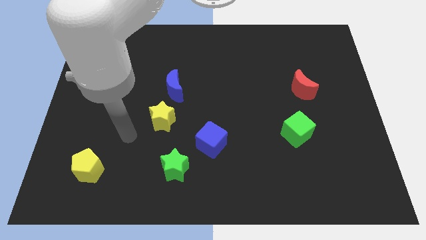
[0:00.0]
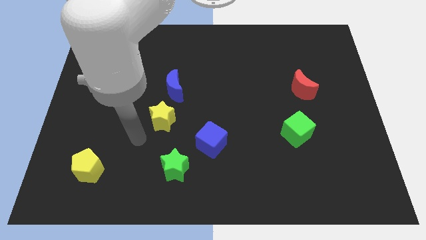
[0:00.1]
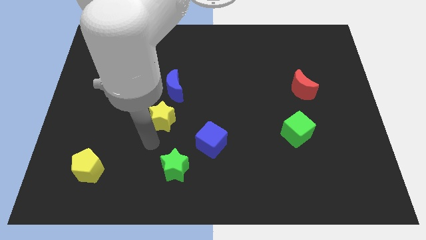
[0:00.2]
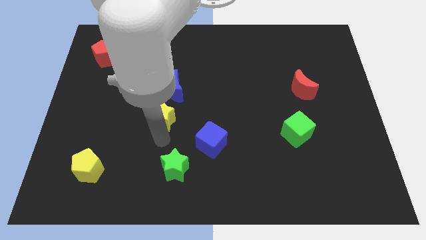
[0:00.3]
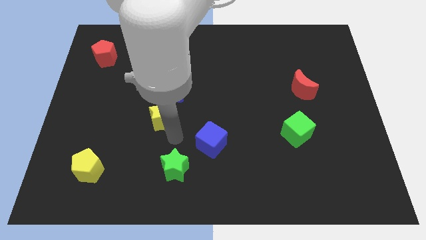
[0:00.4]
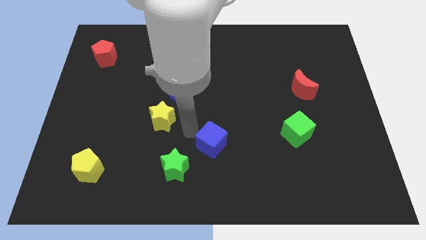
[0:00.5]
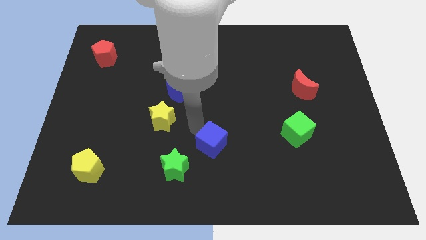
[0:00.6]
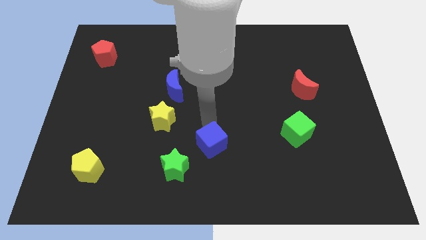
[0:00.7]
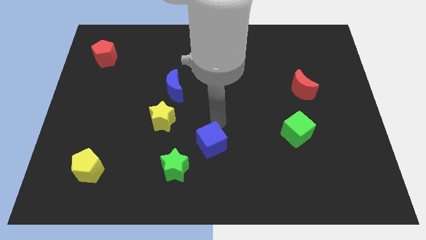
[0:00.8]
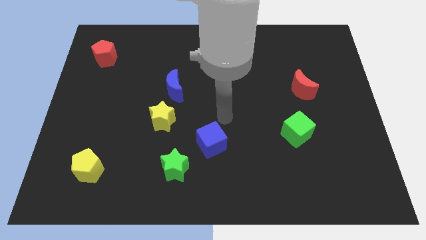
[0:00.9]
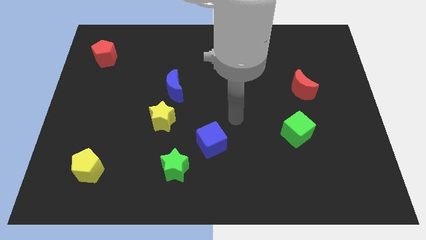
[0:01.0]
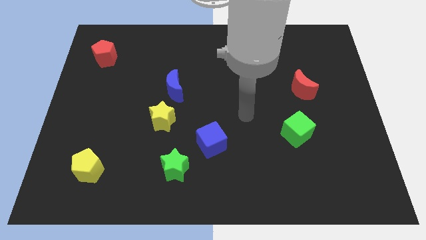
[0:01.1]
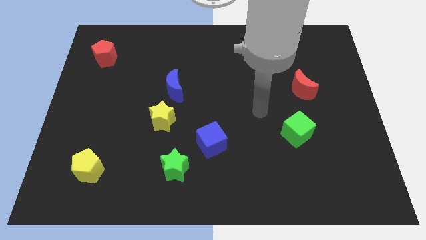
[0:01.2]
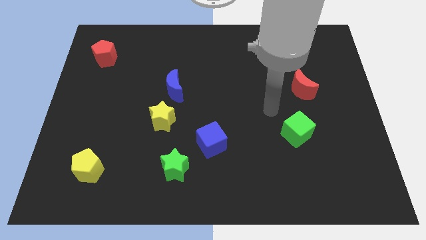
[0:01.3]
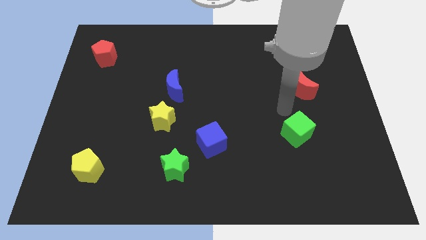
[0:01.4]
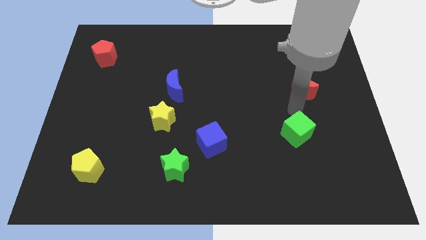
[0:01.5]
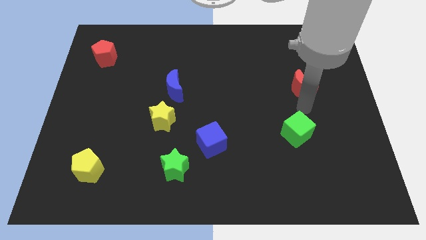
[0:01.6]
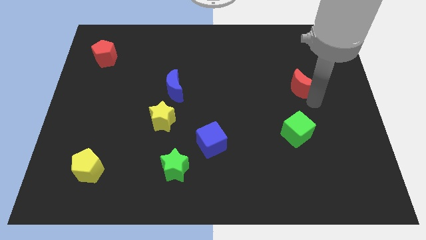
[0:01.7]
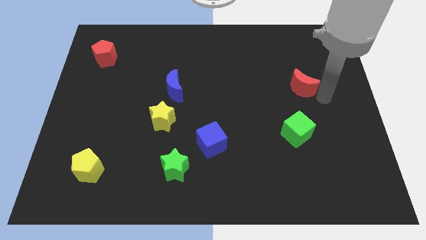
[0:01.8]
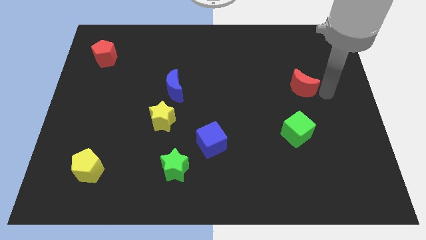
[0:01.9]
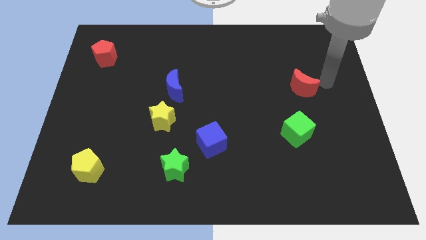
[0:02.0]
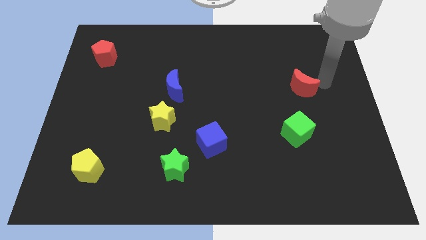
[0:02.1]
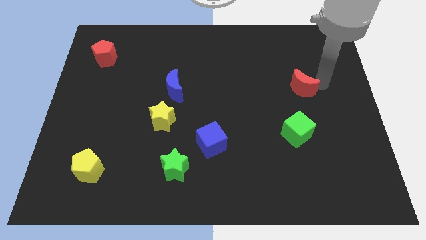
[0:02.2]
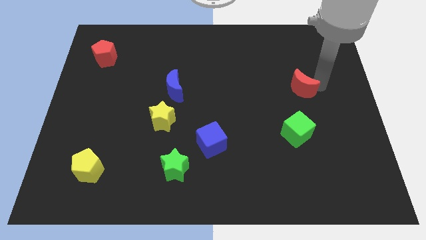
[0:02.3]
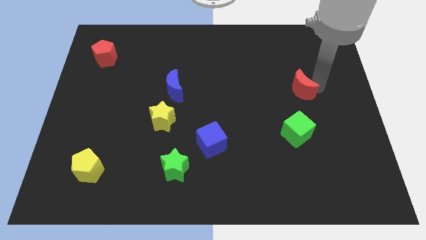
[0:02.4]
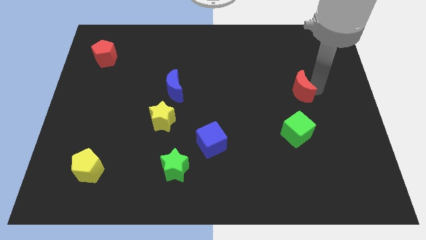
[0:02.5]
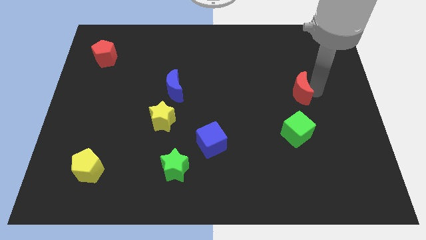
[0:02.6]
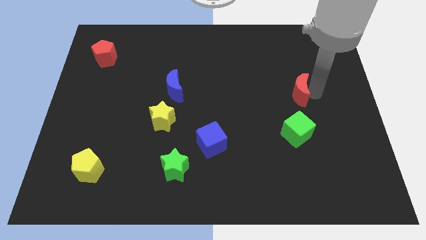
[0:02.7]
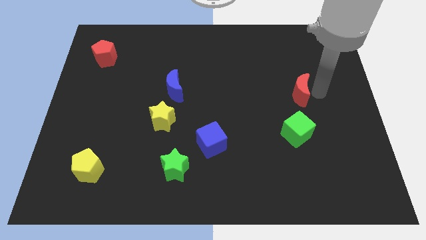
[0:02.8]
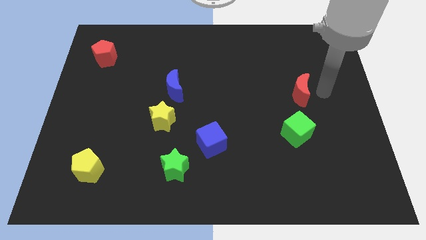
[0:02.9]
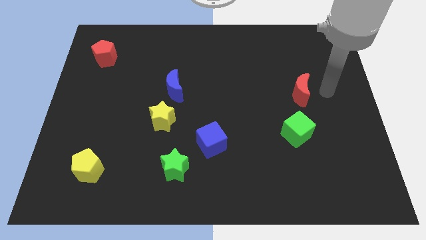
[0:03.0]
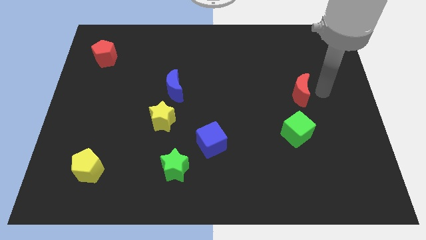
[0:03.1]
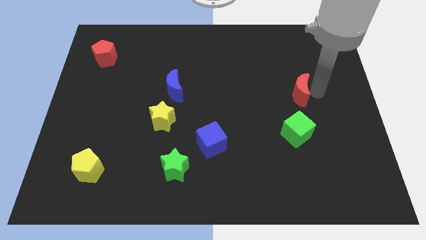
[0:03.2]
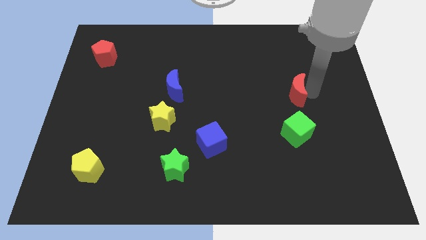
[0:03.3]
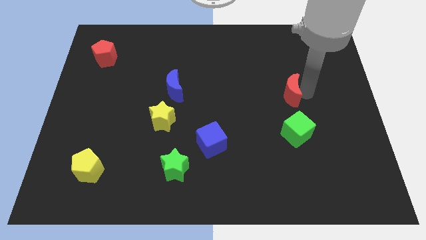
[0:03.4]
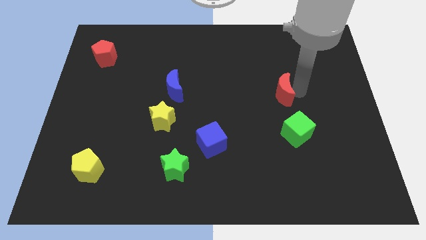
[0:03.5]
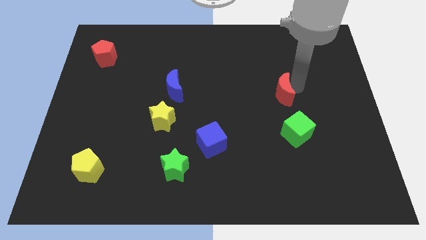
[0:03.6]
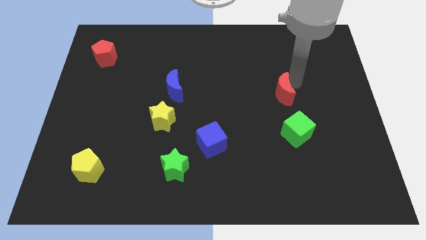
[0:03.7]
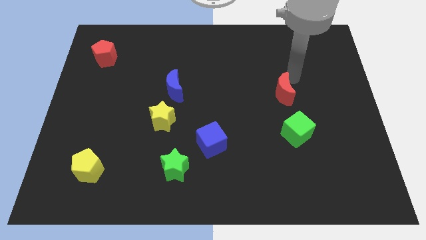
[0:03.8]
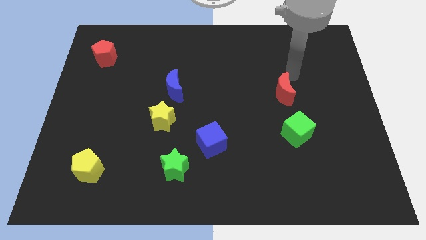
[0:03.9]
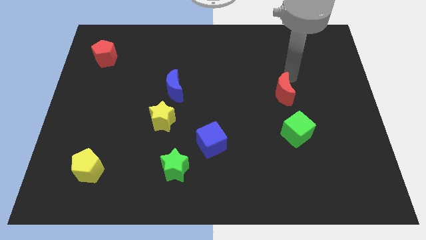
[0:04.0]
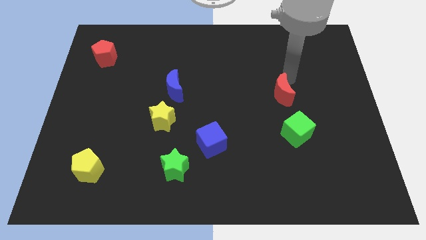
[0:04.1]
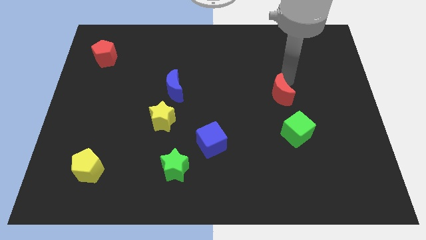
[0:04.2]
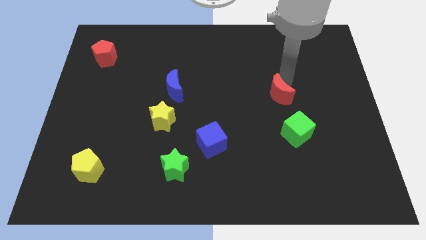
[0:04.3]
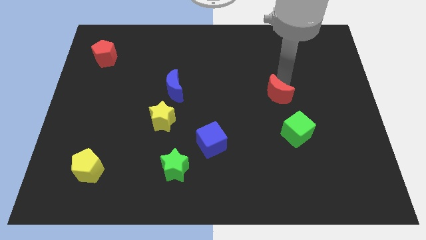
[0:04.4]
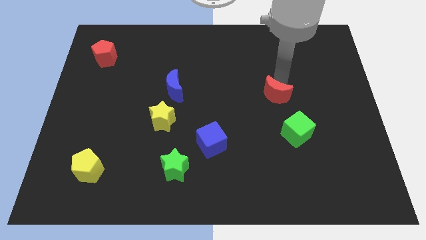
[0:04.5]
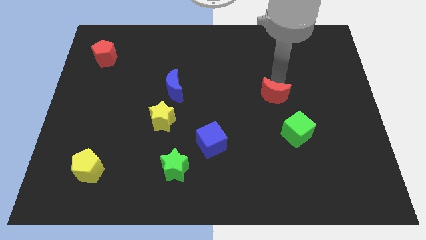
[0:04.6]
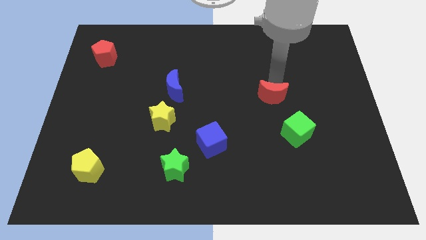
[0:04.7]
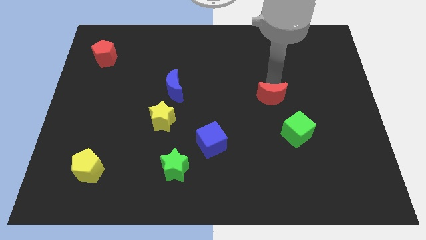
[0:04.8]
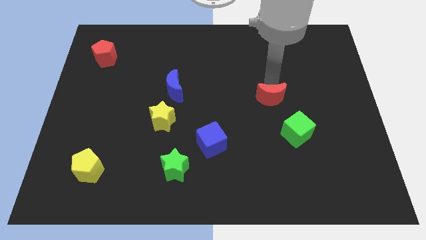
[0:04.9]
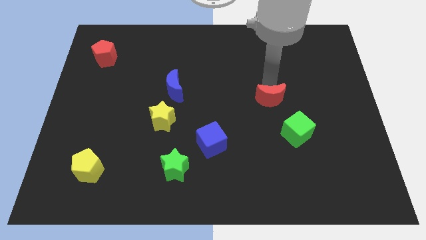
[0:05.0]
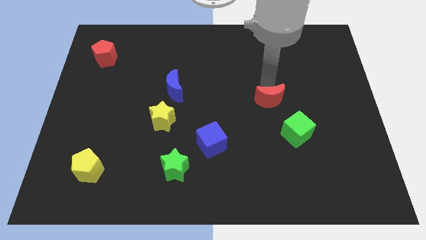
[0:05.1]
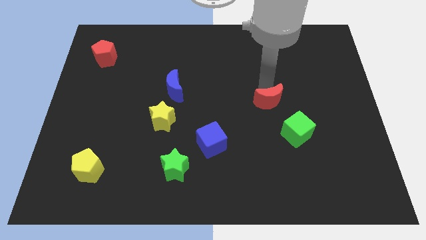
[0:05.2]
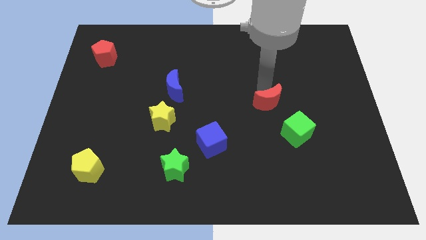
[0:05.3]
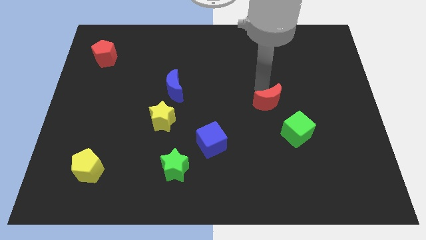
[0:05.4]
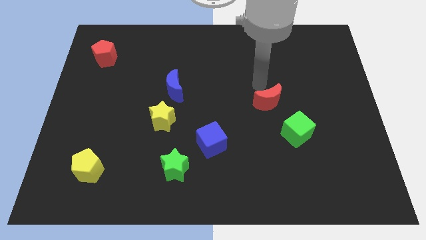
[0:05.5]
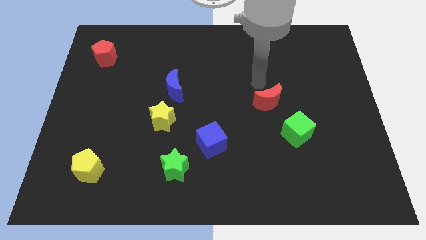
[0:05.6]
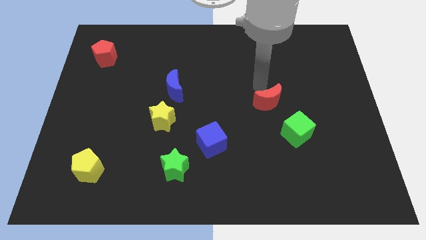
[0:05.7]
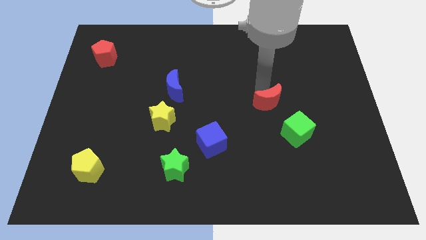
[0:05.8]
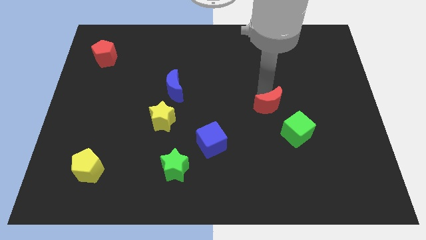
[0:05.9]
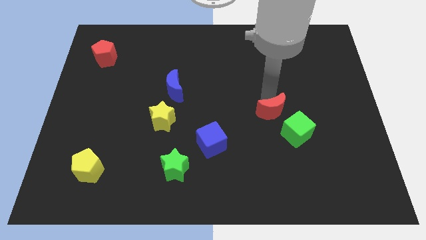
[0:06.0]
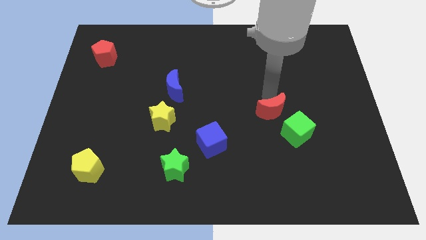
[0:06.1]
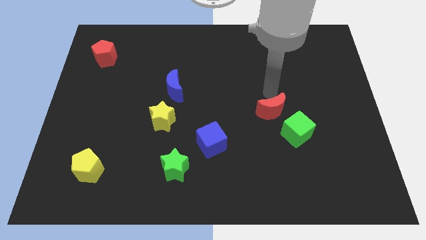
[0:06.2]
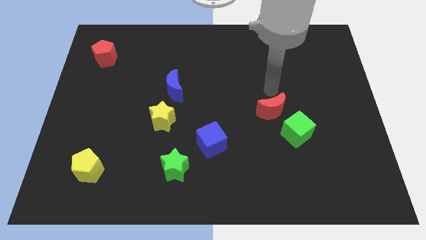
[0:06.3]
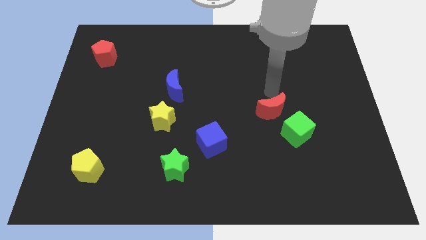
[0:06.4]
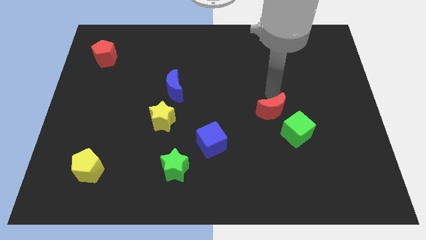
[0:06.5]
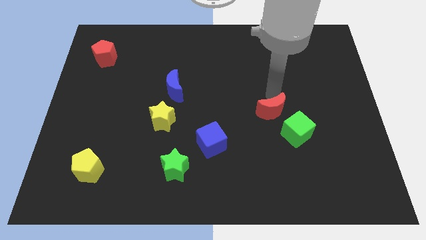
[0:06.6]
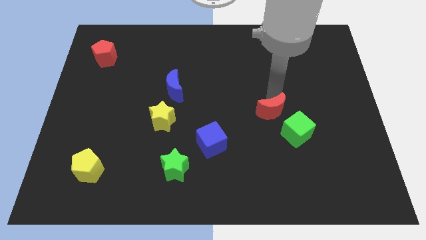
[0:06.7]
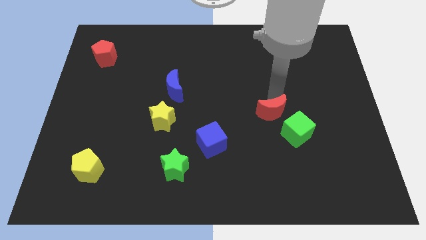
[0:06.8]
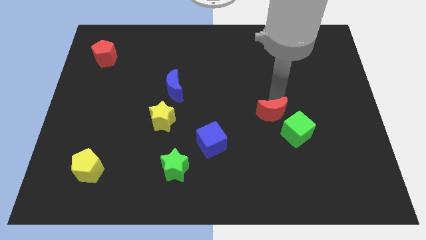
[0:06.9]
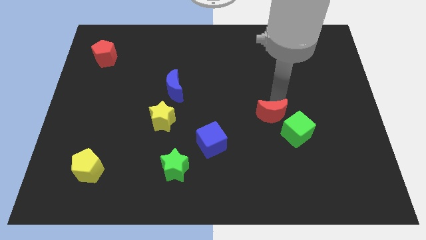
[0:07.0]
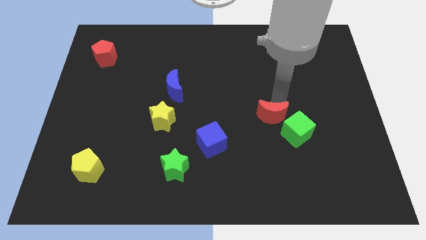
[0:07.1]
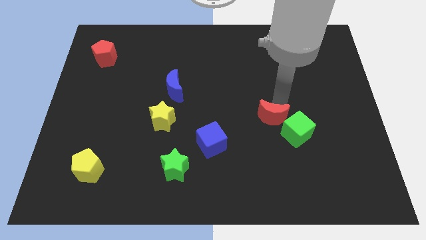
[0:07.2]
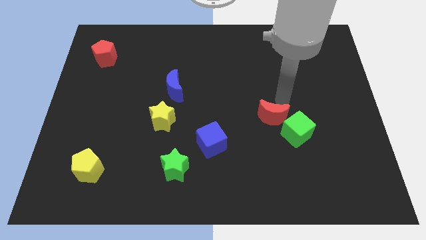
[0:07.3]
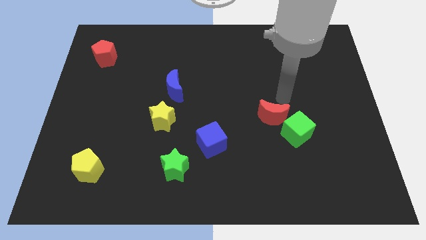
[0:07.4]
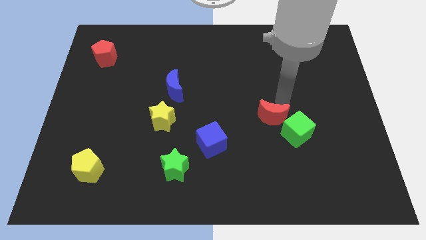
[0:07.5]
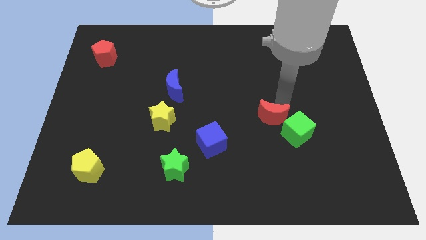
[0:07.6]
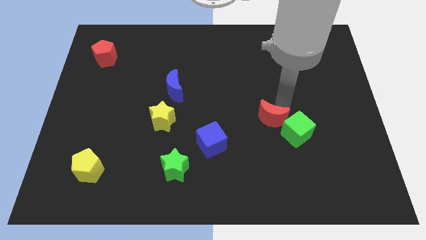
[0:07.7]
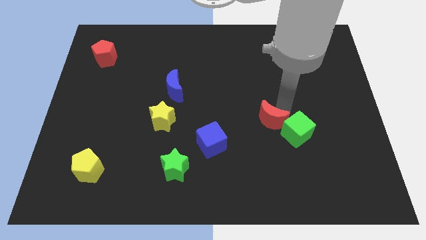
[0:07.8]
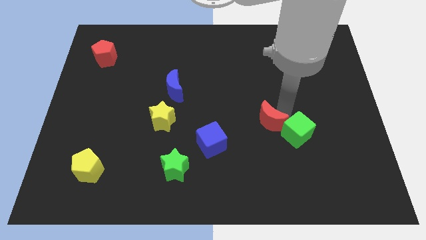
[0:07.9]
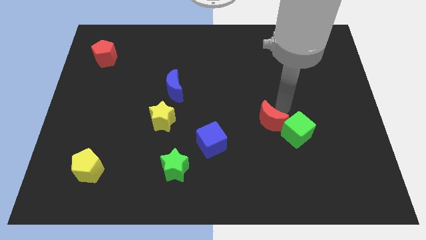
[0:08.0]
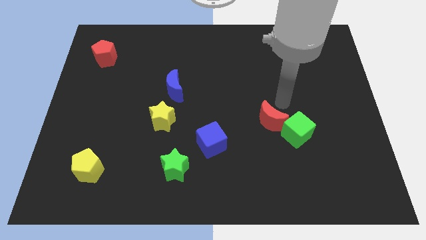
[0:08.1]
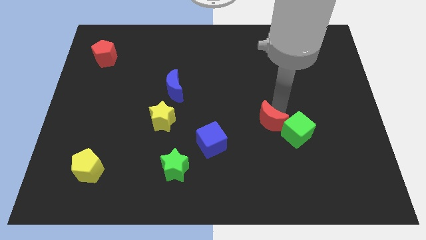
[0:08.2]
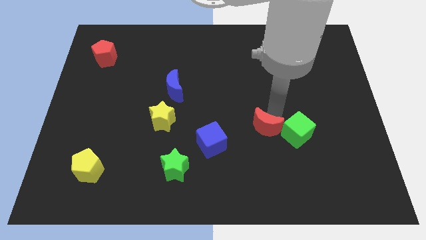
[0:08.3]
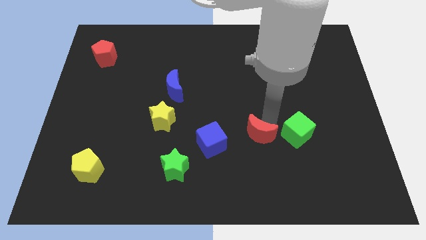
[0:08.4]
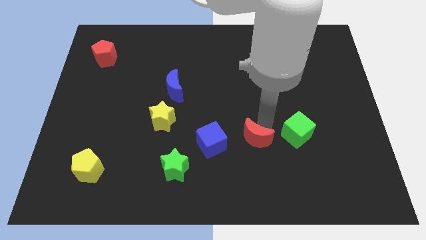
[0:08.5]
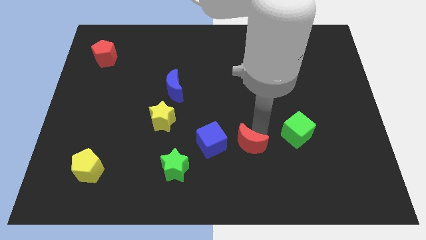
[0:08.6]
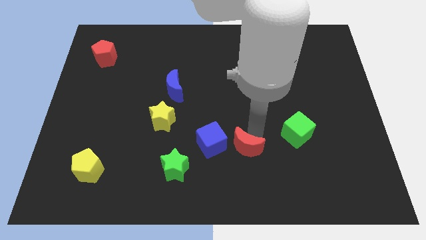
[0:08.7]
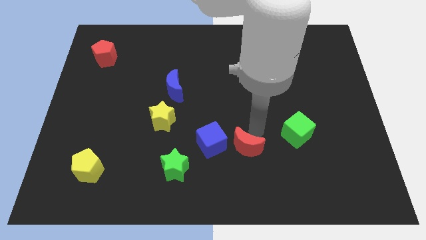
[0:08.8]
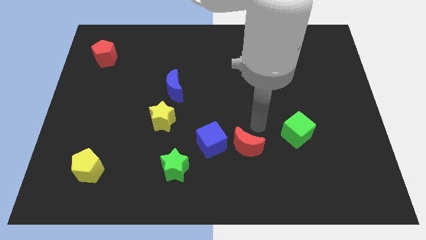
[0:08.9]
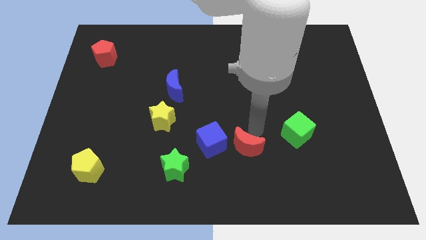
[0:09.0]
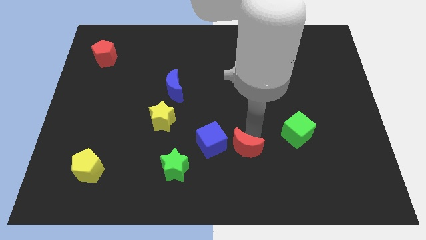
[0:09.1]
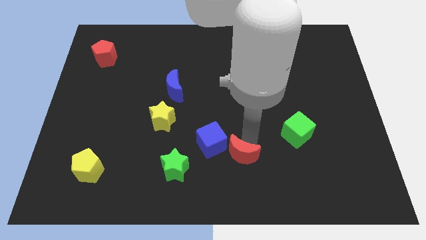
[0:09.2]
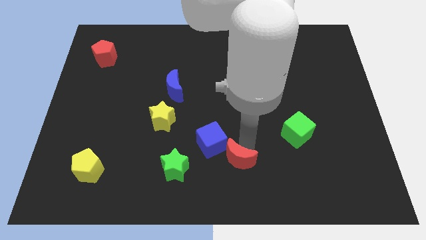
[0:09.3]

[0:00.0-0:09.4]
push the red moon to the bottom
